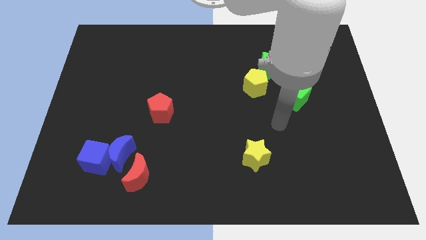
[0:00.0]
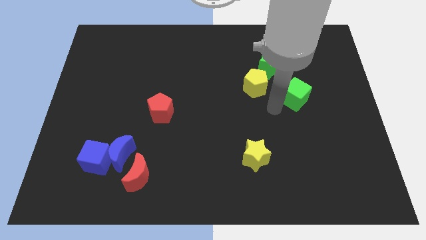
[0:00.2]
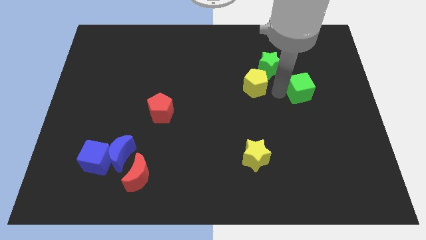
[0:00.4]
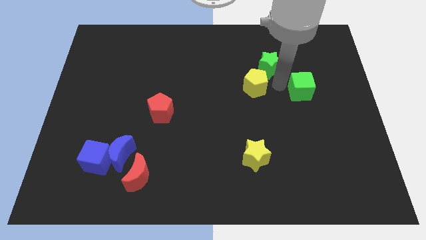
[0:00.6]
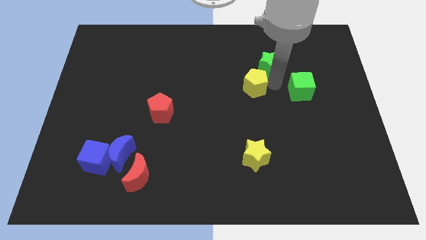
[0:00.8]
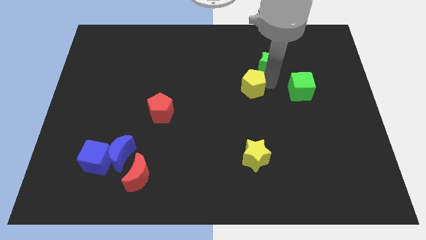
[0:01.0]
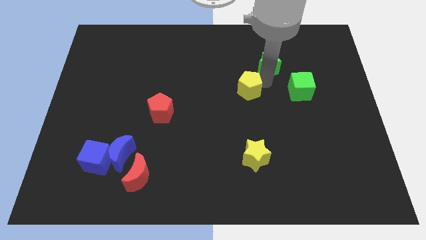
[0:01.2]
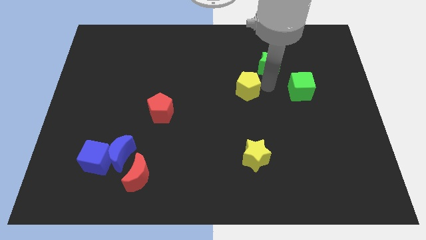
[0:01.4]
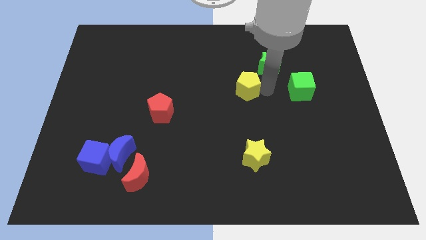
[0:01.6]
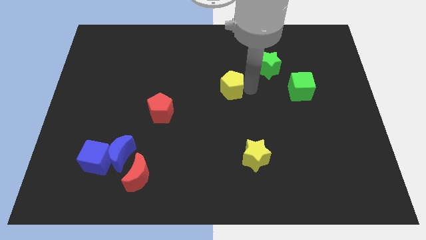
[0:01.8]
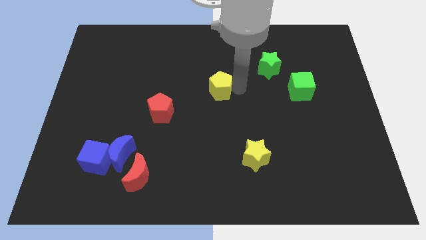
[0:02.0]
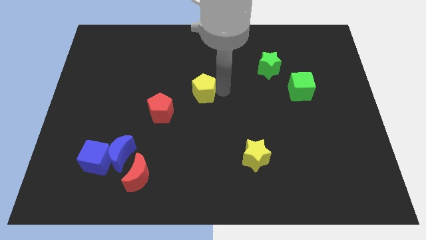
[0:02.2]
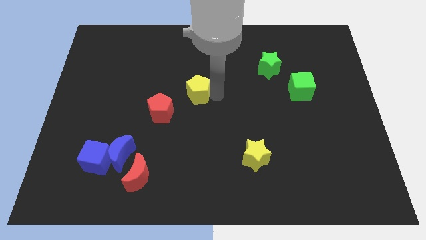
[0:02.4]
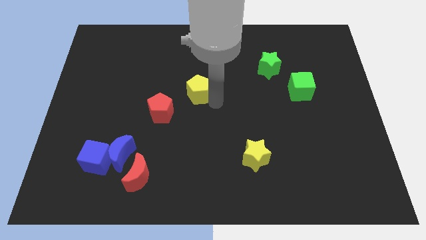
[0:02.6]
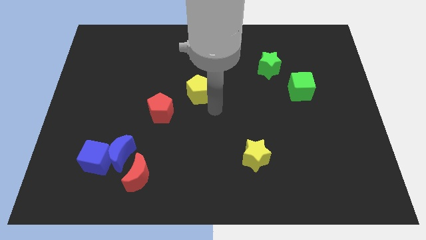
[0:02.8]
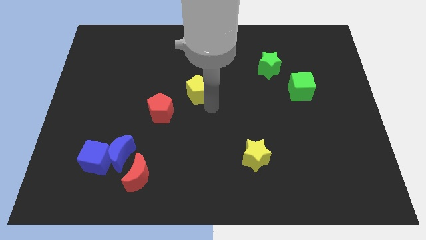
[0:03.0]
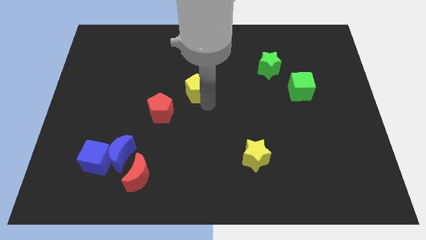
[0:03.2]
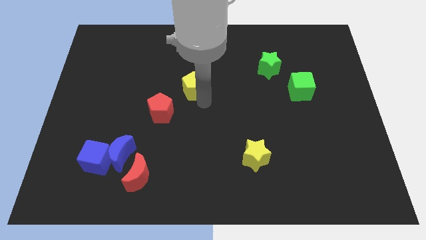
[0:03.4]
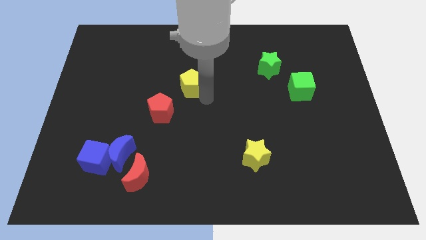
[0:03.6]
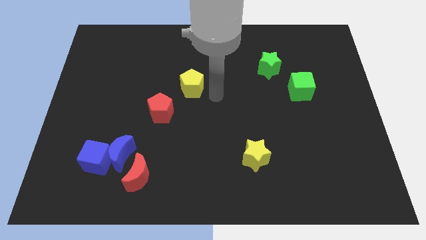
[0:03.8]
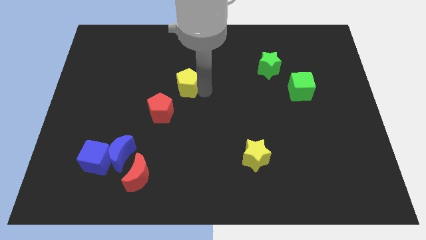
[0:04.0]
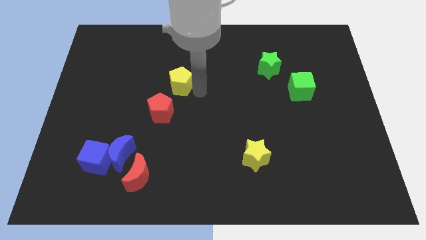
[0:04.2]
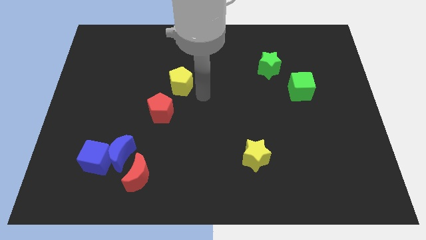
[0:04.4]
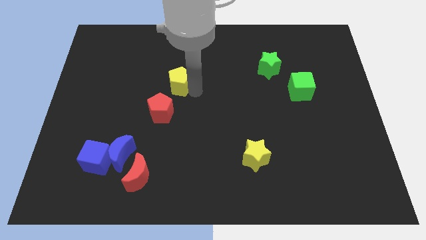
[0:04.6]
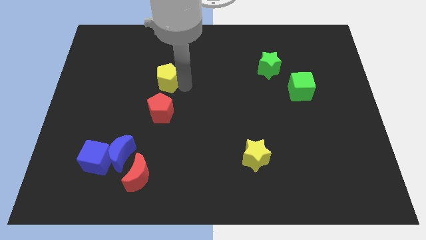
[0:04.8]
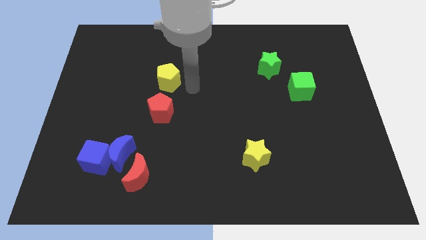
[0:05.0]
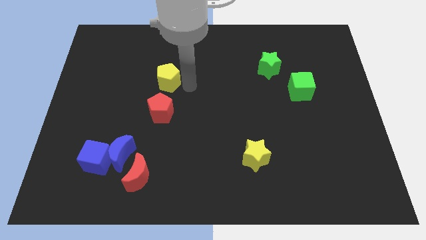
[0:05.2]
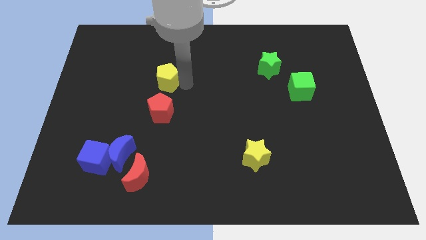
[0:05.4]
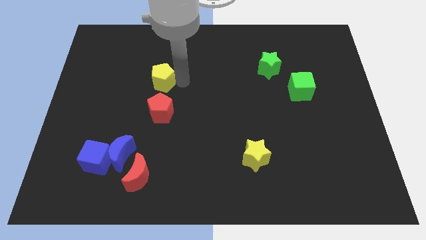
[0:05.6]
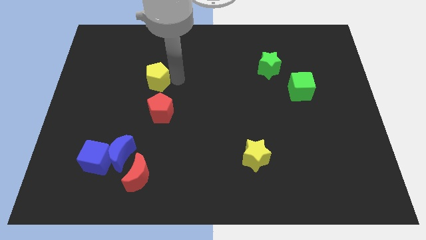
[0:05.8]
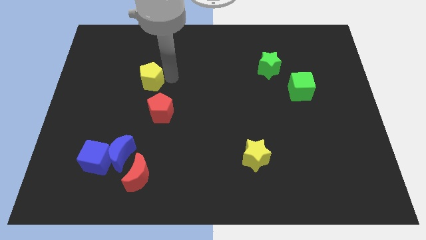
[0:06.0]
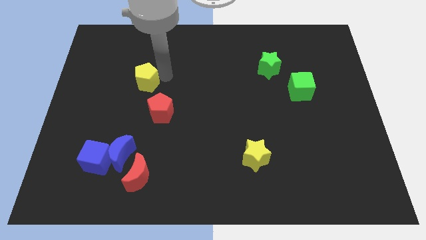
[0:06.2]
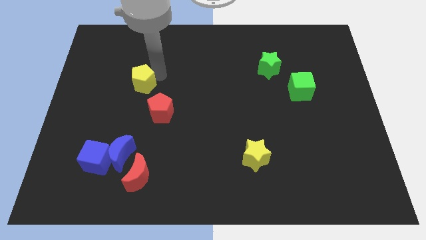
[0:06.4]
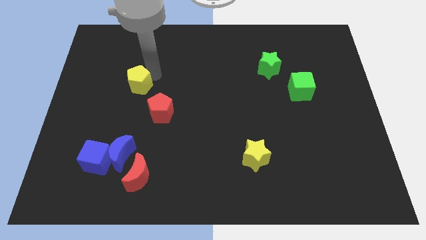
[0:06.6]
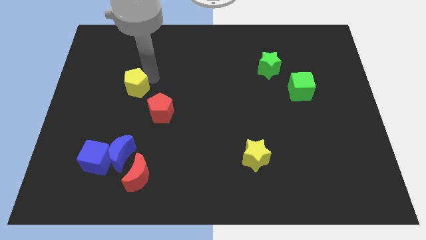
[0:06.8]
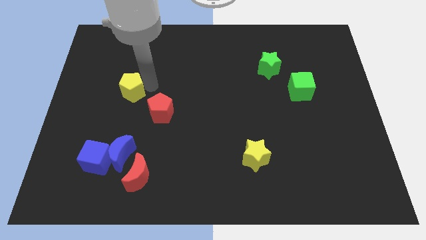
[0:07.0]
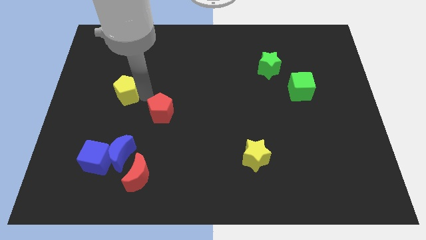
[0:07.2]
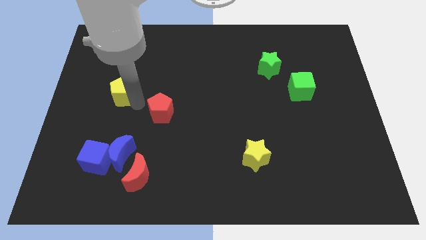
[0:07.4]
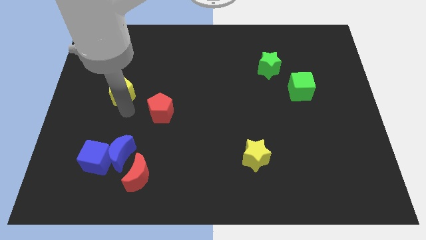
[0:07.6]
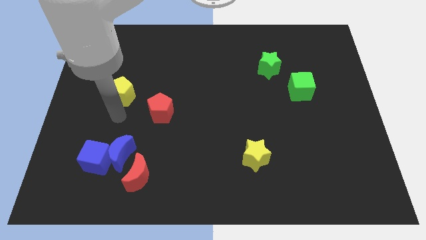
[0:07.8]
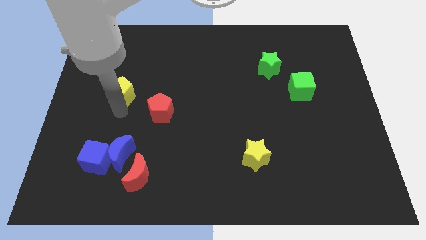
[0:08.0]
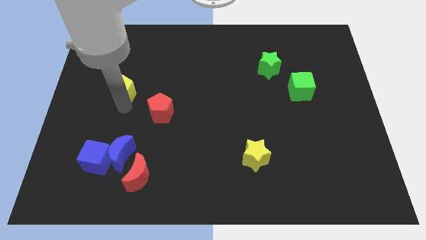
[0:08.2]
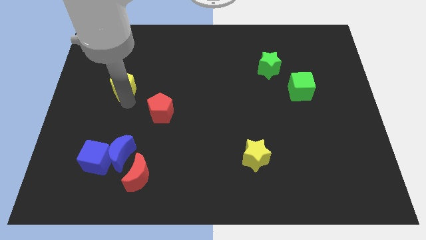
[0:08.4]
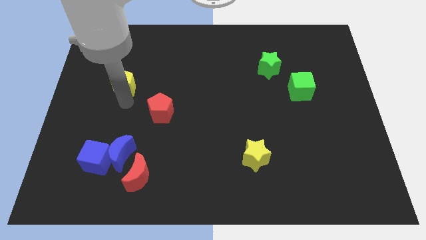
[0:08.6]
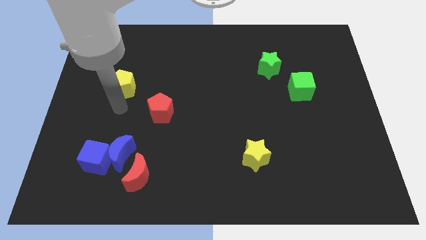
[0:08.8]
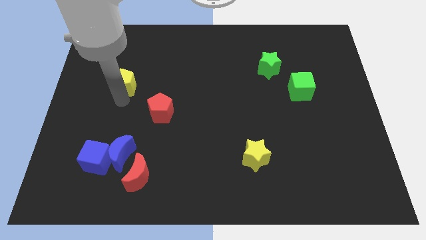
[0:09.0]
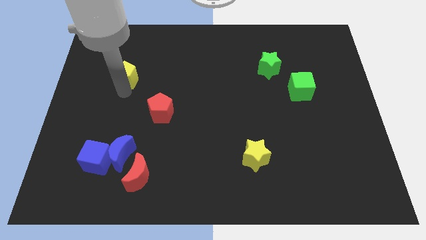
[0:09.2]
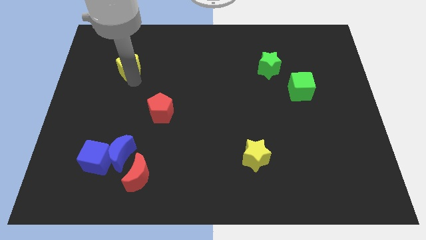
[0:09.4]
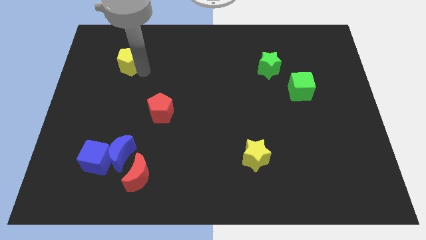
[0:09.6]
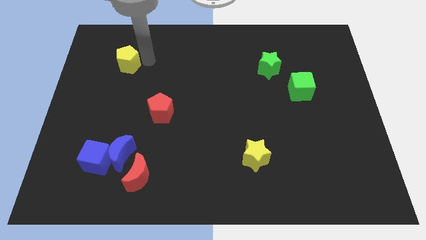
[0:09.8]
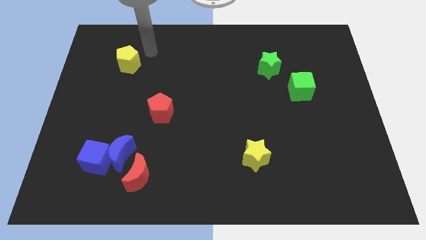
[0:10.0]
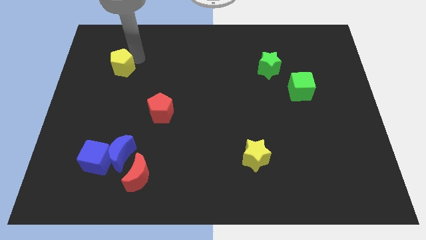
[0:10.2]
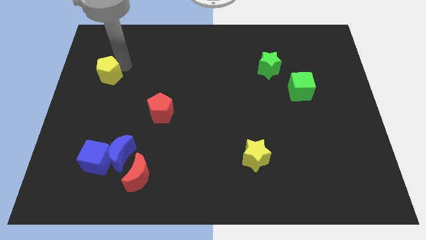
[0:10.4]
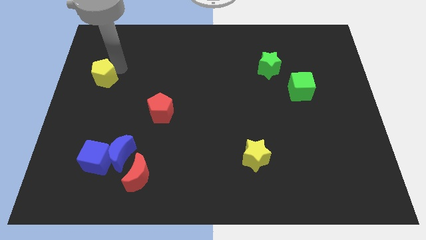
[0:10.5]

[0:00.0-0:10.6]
slide the yellow pentagon to the left side of the board
